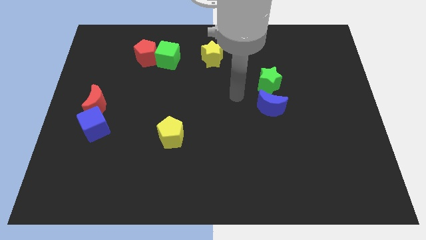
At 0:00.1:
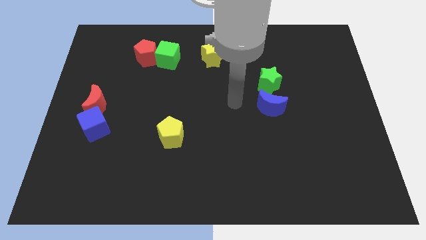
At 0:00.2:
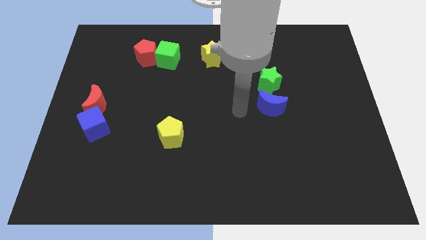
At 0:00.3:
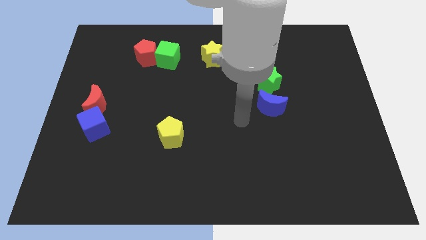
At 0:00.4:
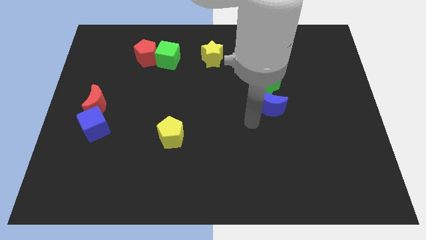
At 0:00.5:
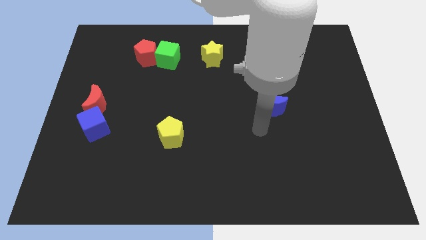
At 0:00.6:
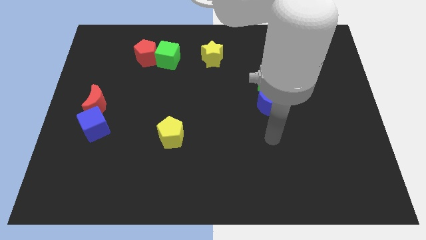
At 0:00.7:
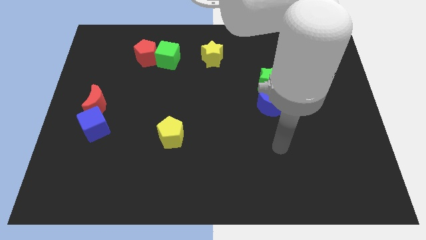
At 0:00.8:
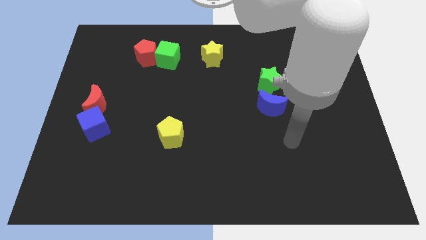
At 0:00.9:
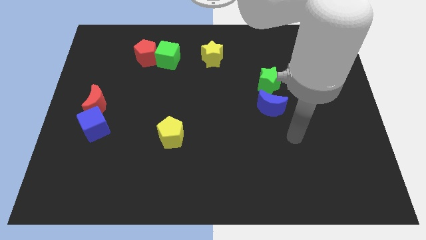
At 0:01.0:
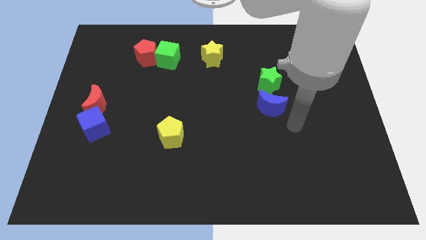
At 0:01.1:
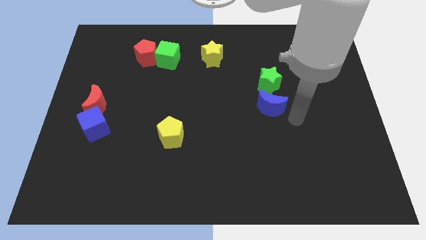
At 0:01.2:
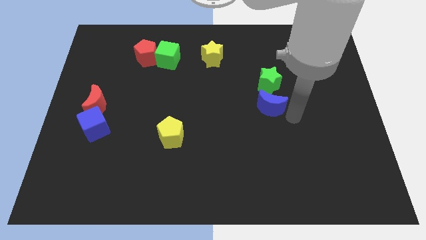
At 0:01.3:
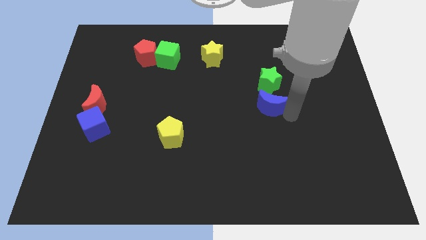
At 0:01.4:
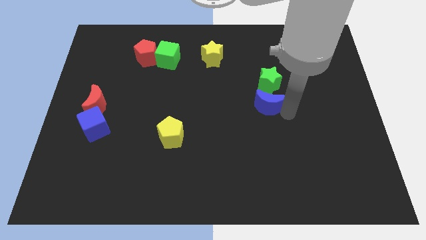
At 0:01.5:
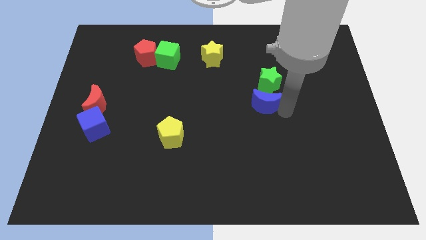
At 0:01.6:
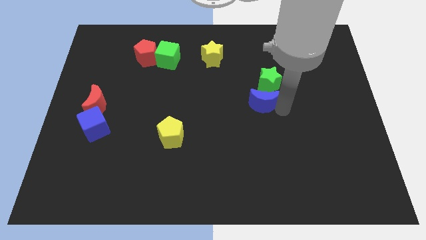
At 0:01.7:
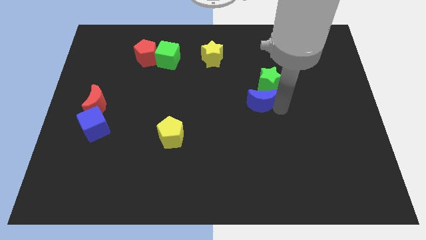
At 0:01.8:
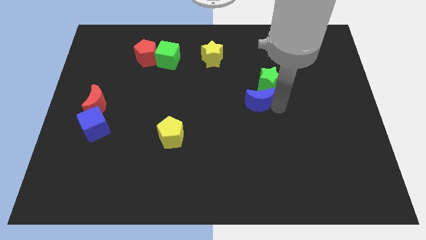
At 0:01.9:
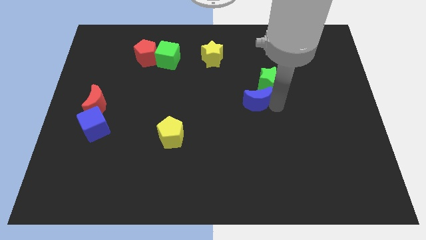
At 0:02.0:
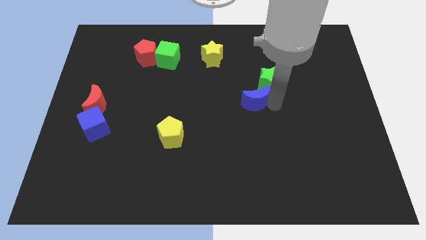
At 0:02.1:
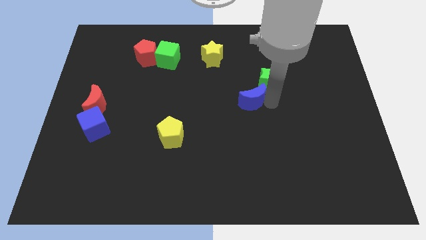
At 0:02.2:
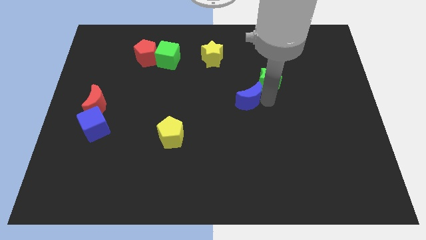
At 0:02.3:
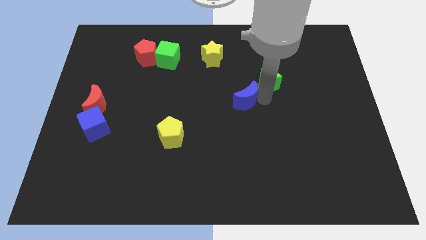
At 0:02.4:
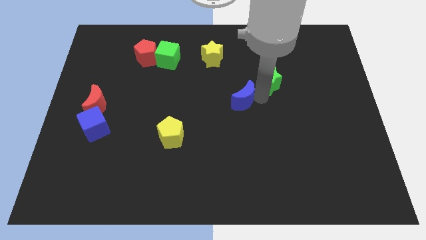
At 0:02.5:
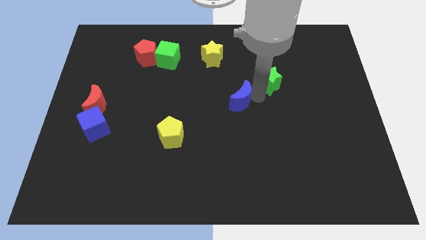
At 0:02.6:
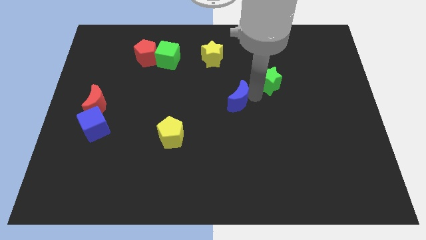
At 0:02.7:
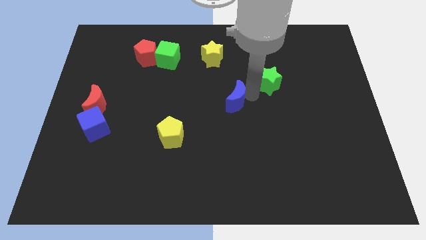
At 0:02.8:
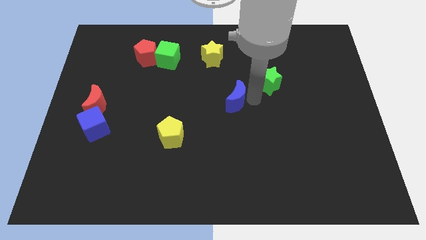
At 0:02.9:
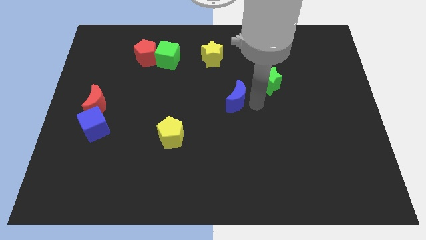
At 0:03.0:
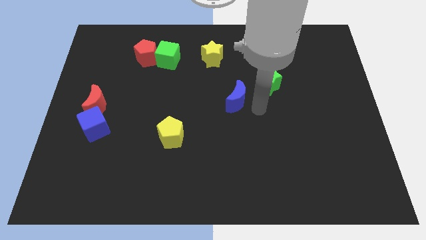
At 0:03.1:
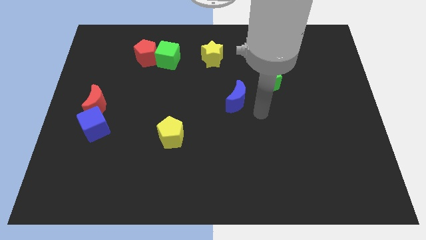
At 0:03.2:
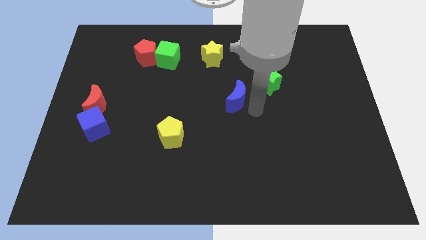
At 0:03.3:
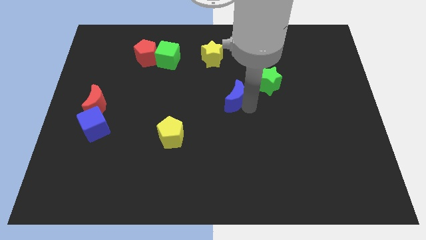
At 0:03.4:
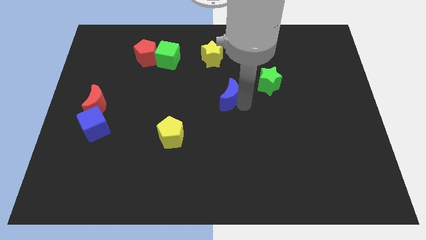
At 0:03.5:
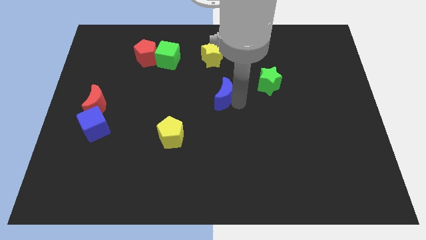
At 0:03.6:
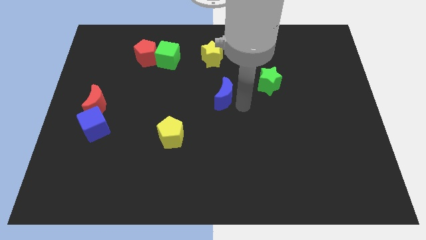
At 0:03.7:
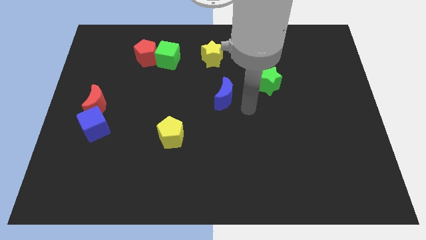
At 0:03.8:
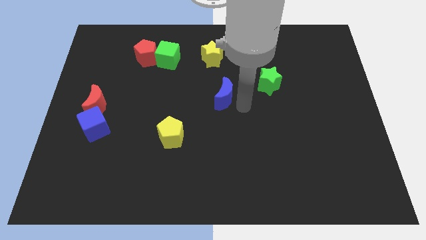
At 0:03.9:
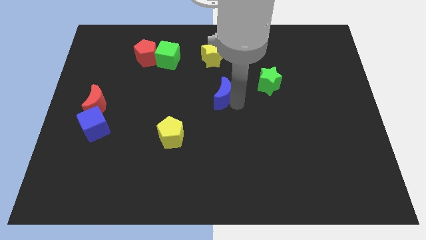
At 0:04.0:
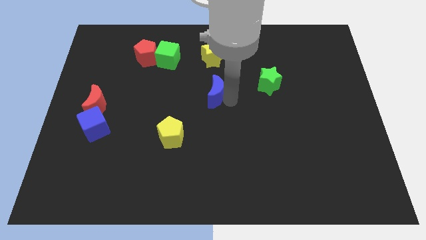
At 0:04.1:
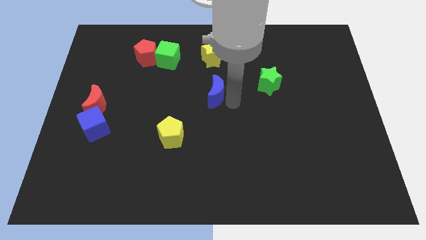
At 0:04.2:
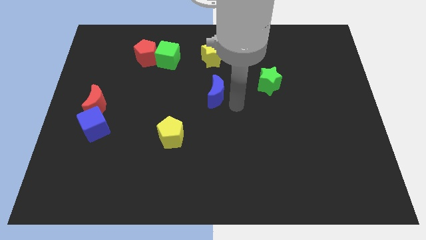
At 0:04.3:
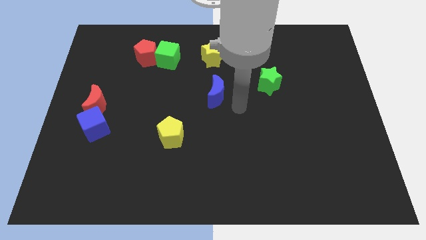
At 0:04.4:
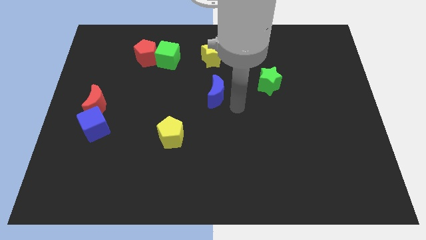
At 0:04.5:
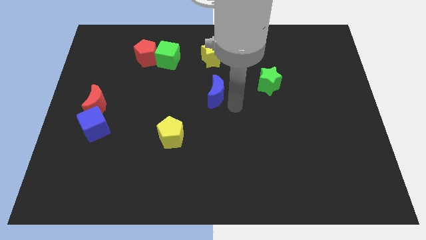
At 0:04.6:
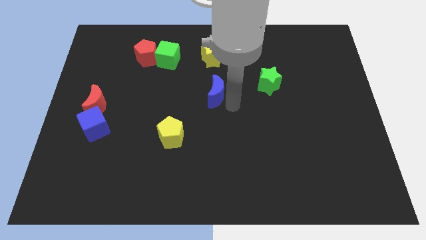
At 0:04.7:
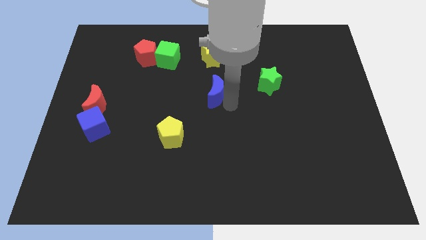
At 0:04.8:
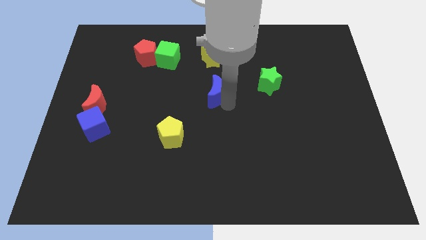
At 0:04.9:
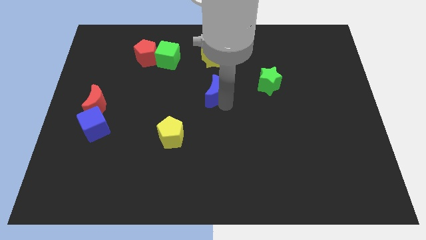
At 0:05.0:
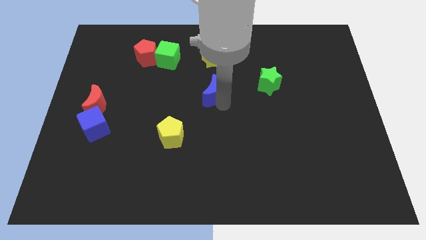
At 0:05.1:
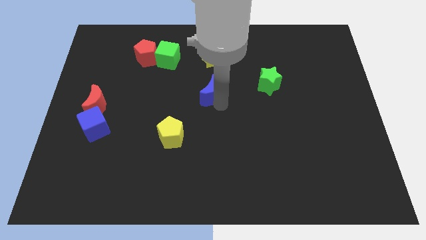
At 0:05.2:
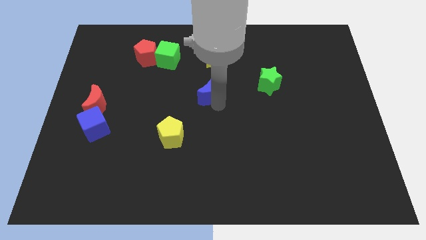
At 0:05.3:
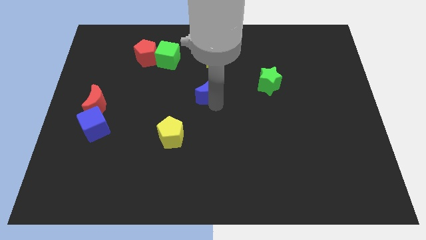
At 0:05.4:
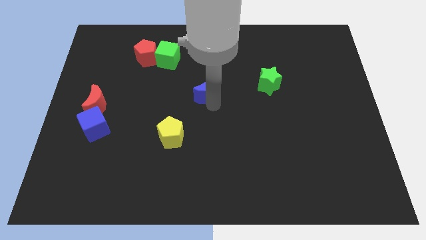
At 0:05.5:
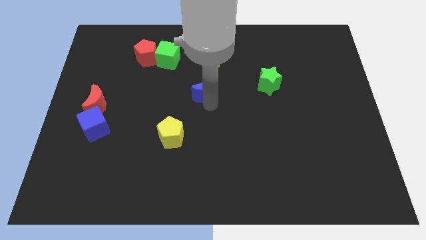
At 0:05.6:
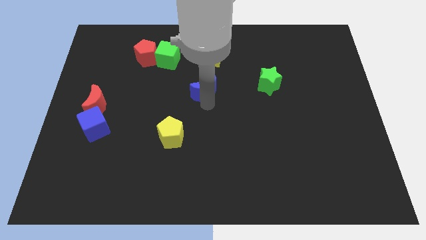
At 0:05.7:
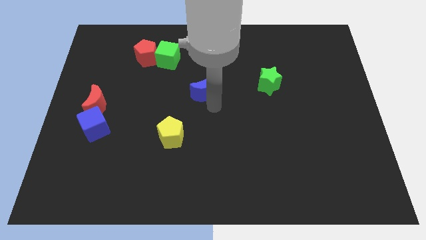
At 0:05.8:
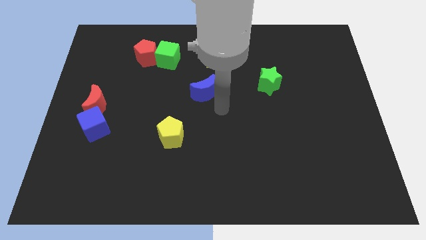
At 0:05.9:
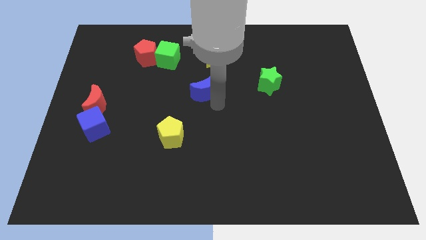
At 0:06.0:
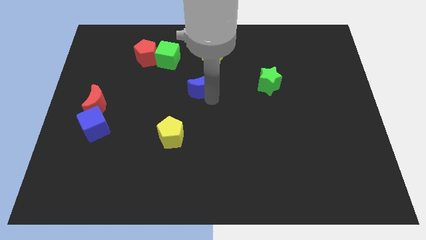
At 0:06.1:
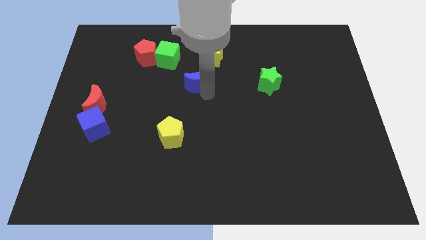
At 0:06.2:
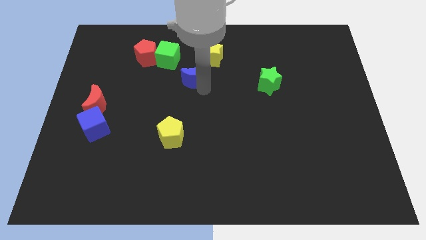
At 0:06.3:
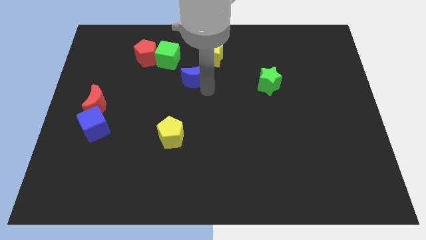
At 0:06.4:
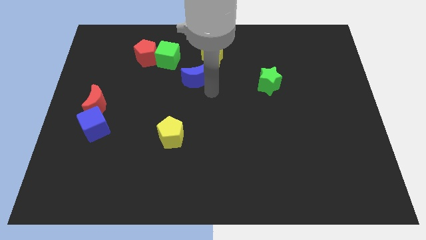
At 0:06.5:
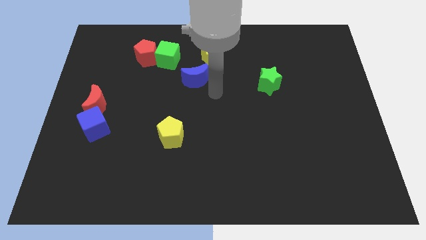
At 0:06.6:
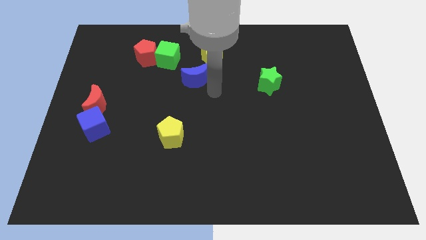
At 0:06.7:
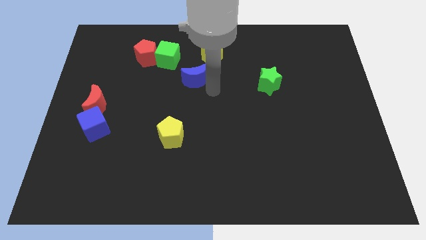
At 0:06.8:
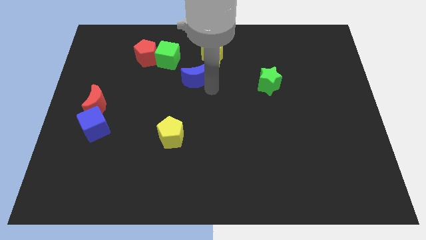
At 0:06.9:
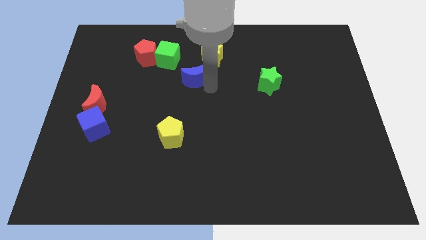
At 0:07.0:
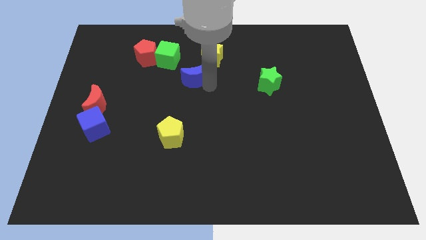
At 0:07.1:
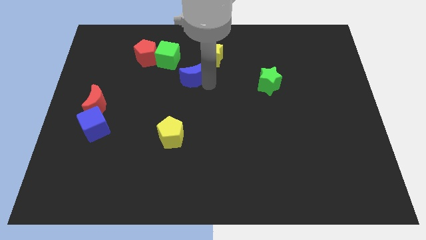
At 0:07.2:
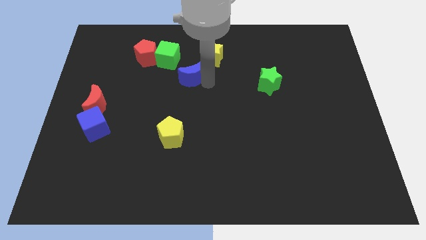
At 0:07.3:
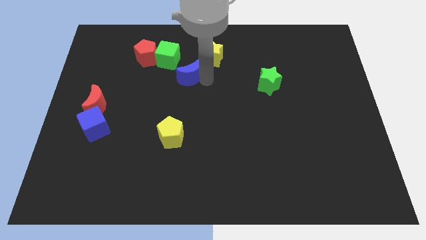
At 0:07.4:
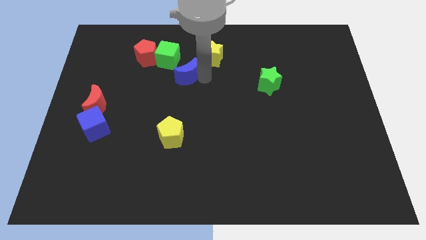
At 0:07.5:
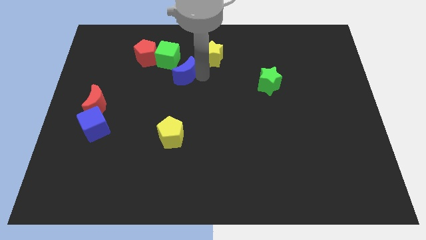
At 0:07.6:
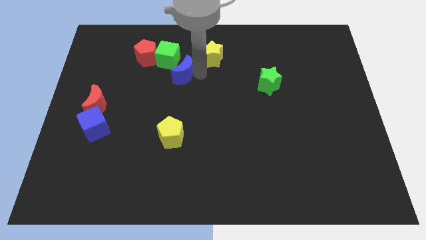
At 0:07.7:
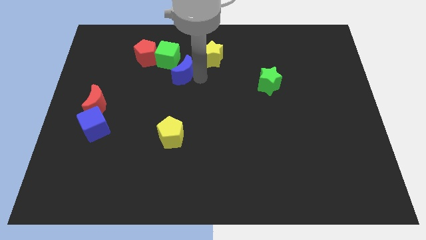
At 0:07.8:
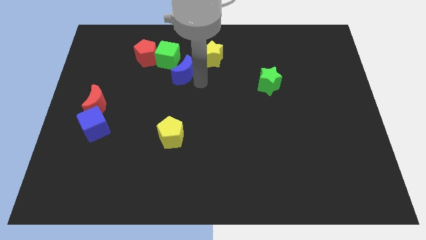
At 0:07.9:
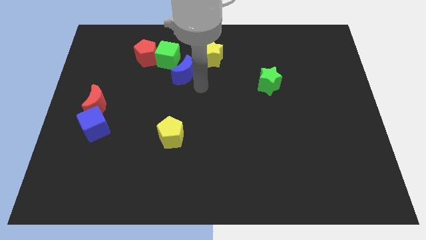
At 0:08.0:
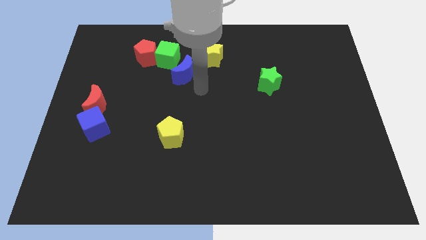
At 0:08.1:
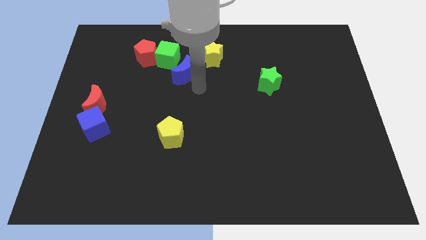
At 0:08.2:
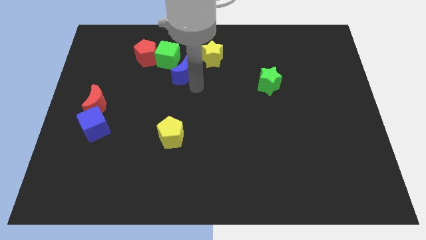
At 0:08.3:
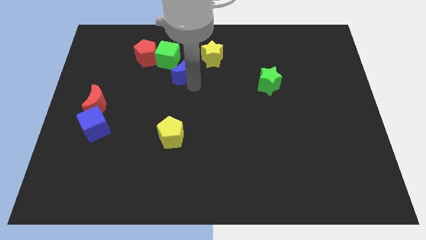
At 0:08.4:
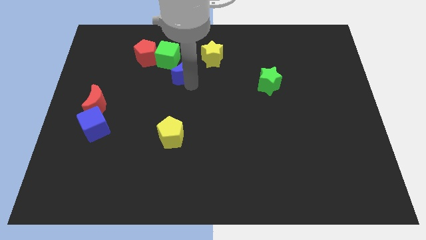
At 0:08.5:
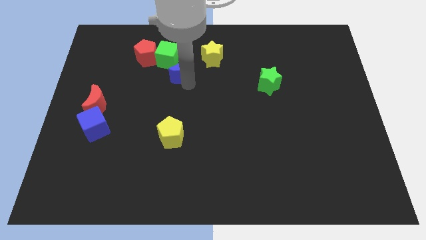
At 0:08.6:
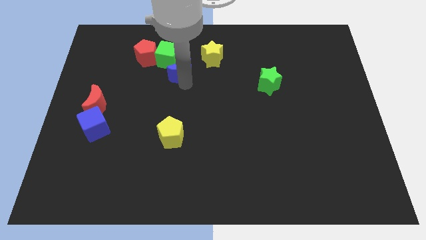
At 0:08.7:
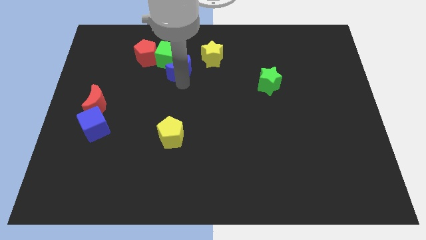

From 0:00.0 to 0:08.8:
push the blue moon to the green cube
